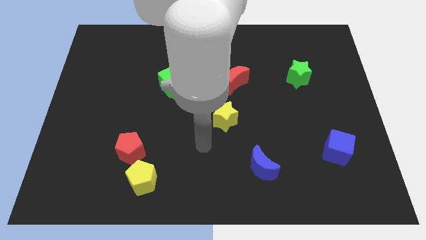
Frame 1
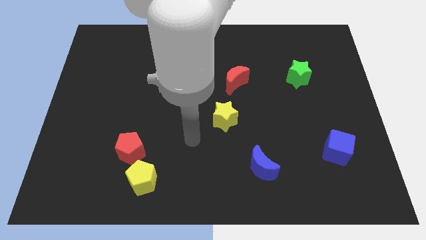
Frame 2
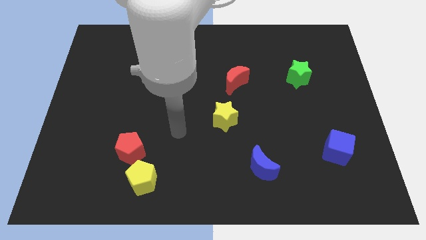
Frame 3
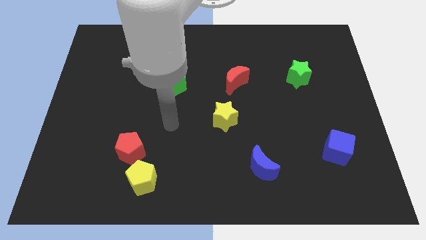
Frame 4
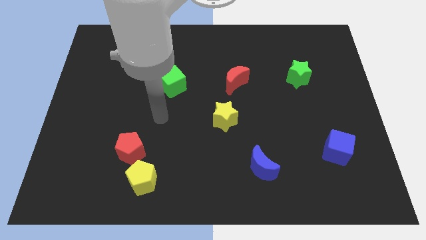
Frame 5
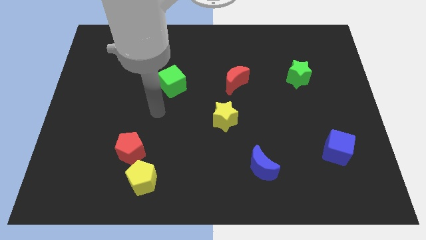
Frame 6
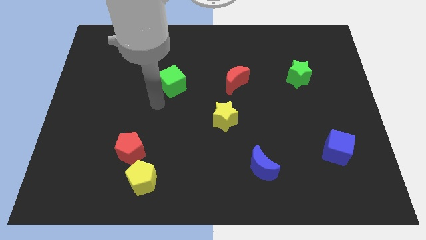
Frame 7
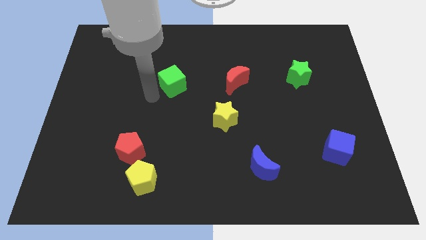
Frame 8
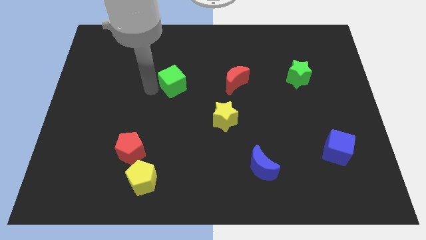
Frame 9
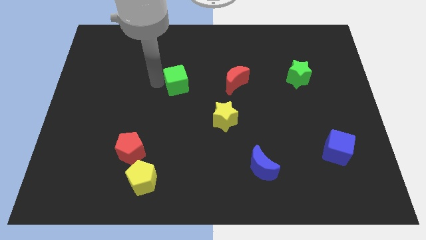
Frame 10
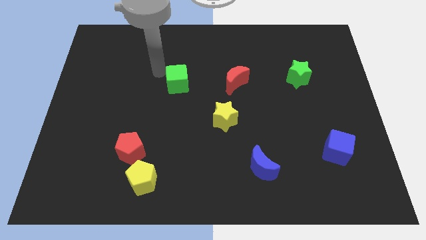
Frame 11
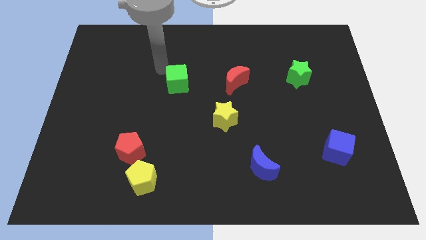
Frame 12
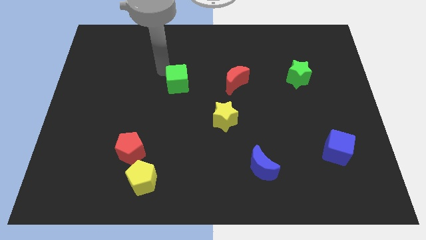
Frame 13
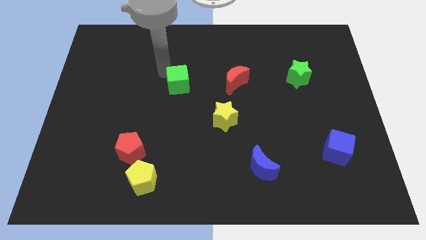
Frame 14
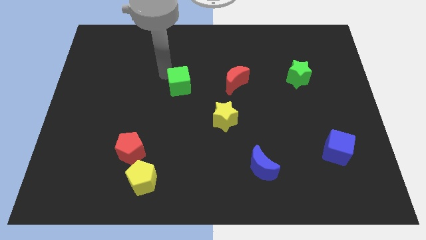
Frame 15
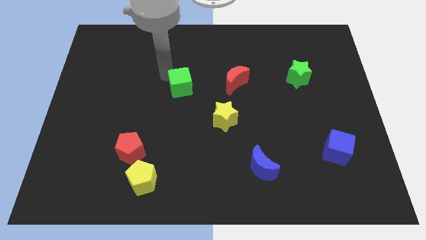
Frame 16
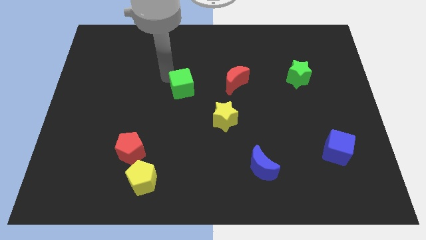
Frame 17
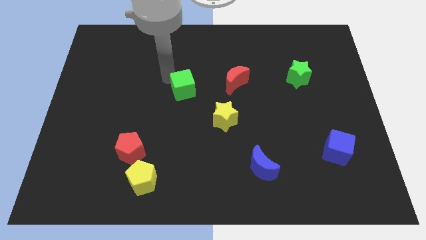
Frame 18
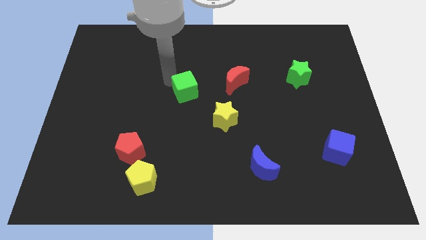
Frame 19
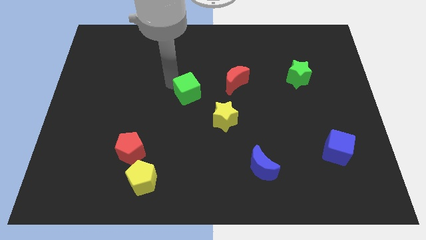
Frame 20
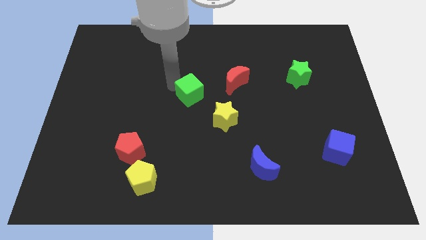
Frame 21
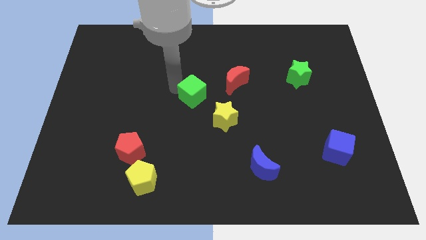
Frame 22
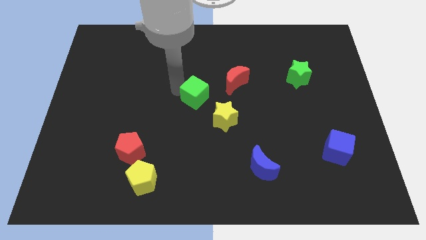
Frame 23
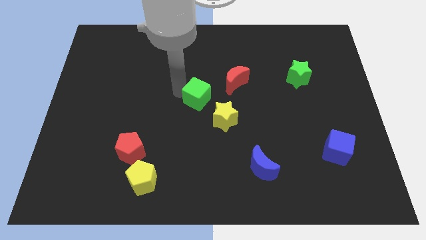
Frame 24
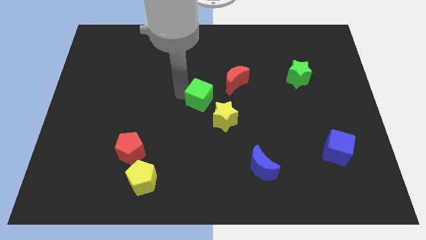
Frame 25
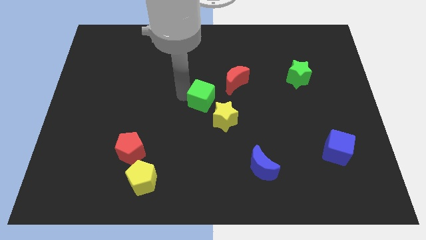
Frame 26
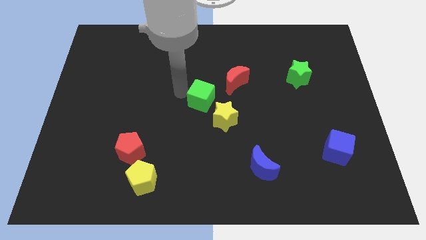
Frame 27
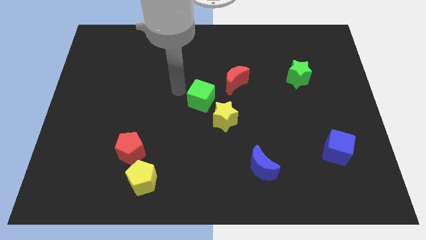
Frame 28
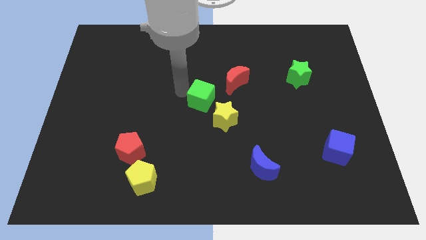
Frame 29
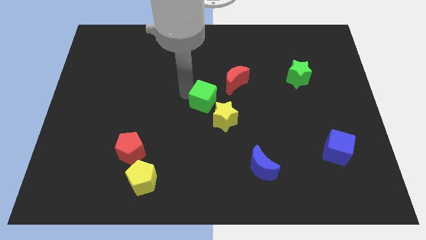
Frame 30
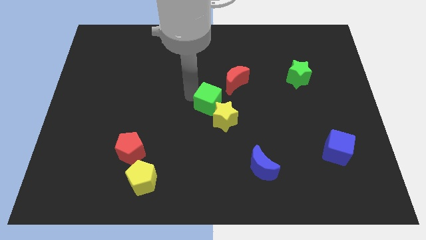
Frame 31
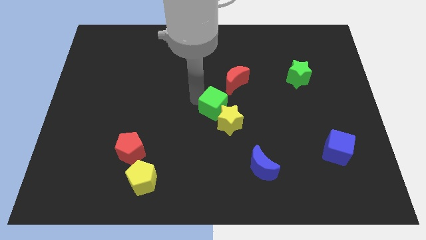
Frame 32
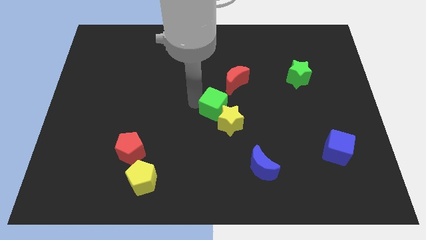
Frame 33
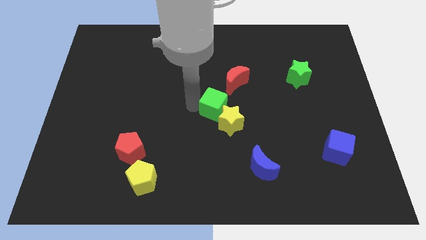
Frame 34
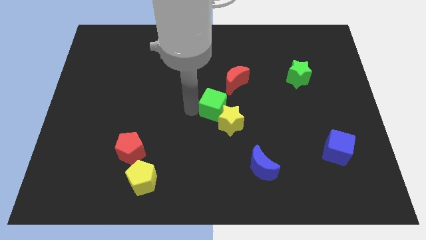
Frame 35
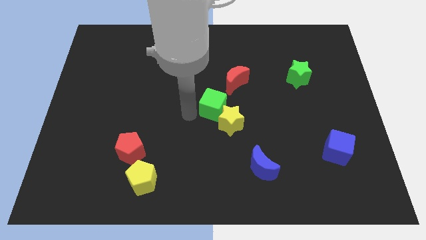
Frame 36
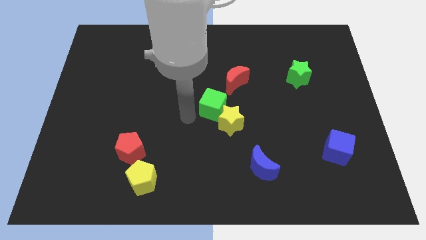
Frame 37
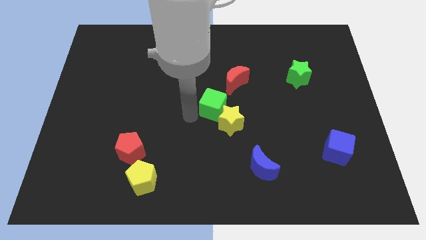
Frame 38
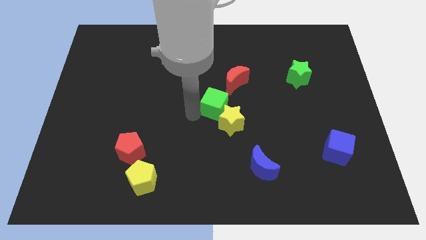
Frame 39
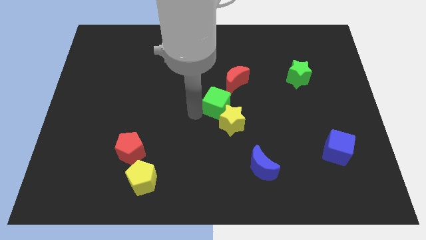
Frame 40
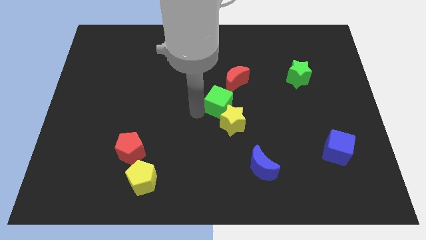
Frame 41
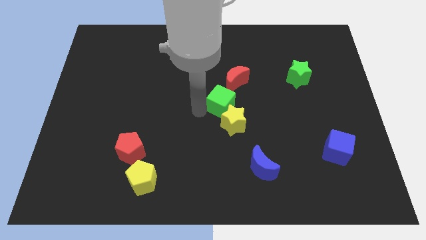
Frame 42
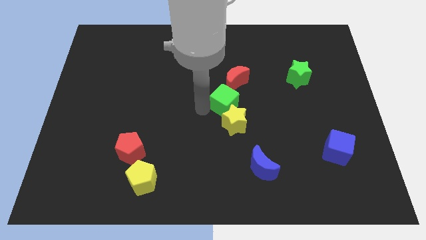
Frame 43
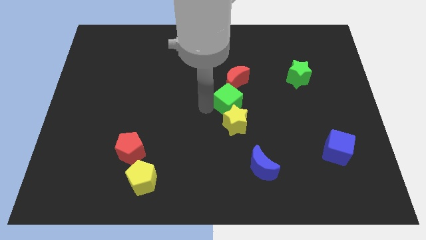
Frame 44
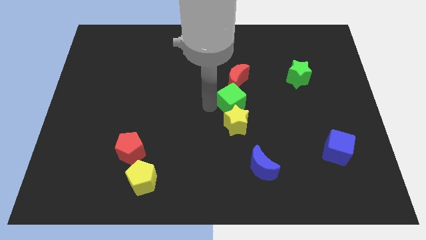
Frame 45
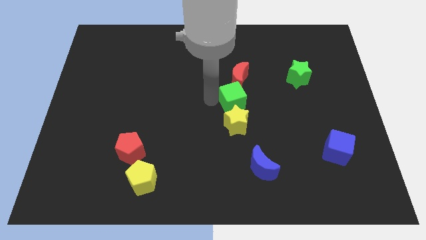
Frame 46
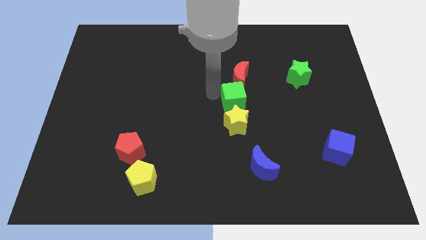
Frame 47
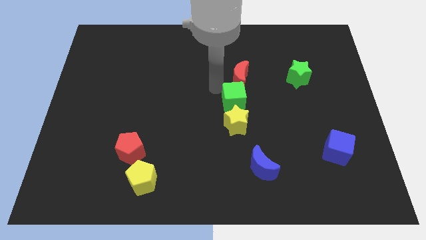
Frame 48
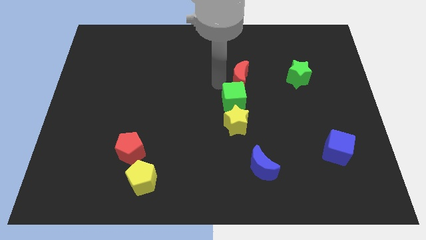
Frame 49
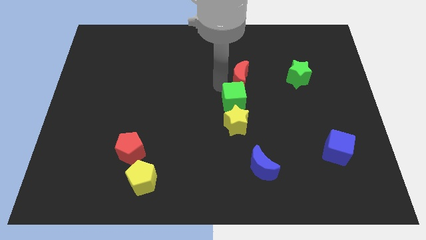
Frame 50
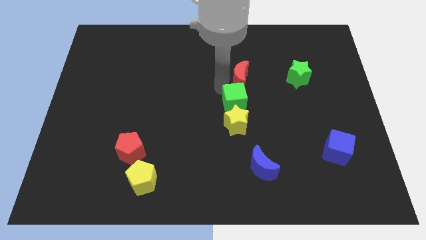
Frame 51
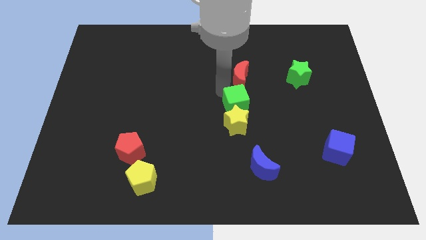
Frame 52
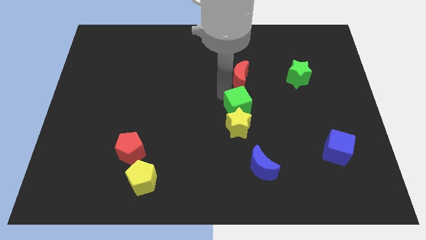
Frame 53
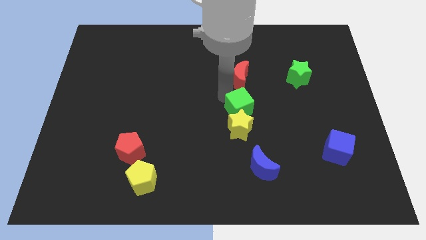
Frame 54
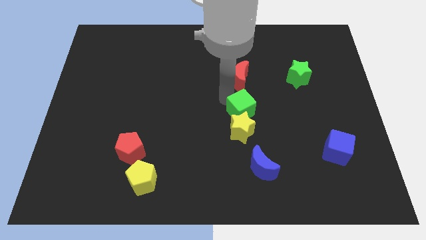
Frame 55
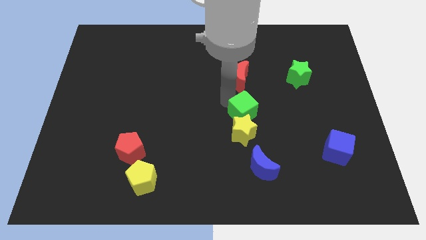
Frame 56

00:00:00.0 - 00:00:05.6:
put the green cube to the top side of the blue moon
